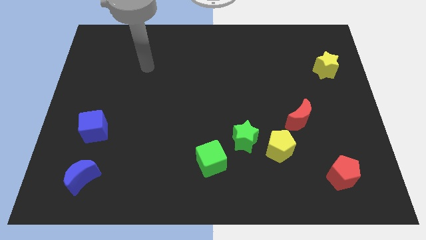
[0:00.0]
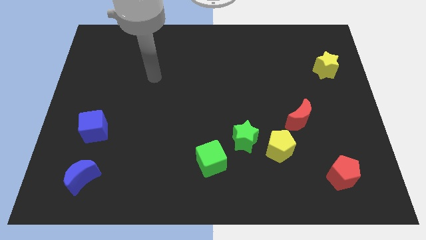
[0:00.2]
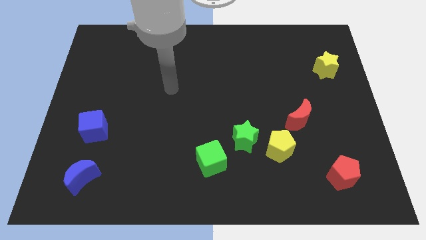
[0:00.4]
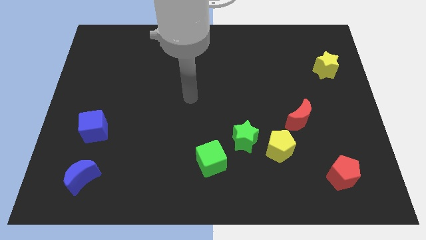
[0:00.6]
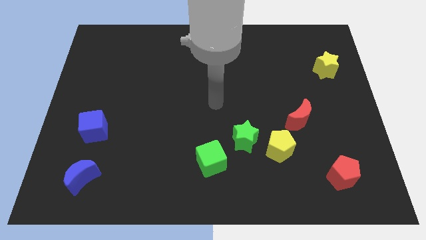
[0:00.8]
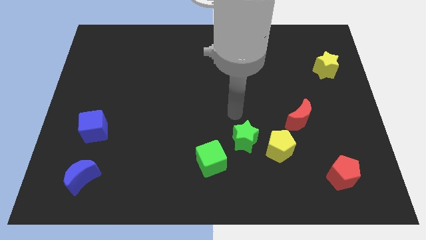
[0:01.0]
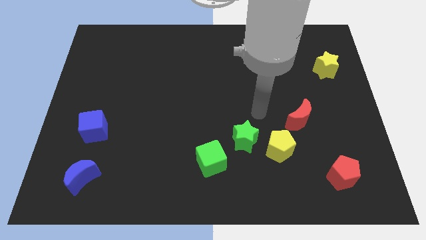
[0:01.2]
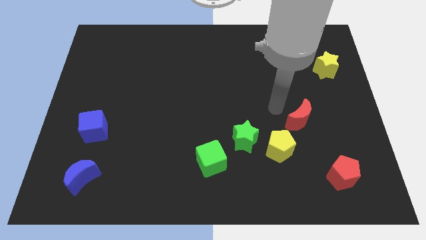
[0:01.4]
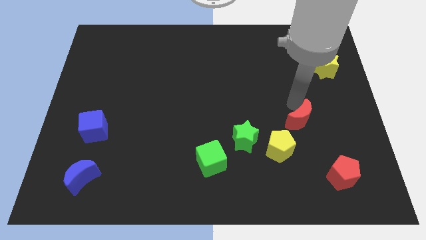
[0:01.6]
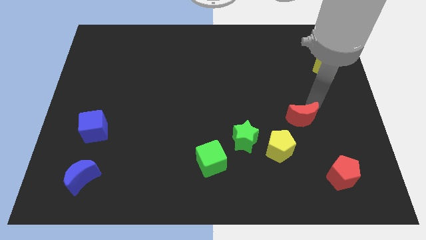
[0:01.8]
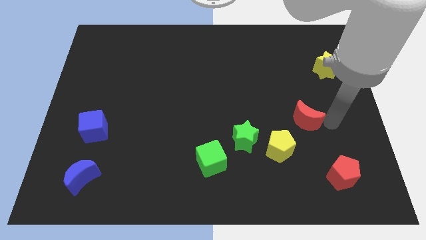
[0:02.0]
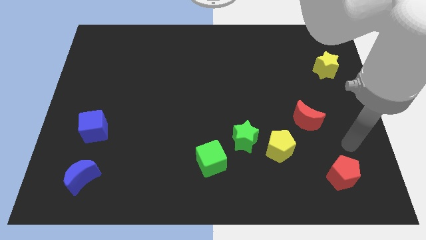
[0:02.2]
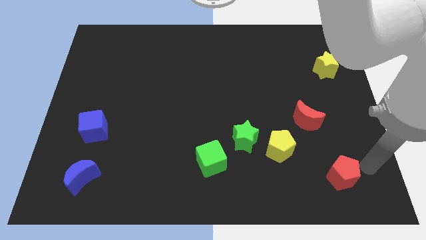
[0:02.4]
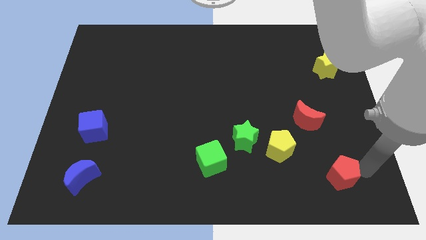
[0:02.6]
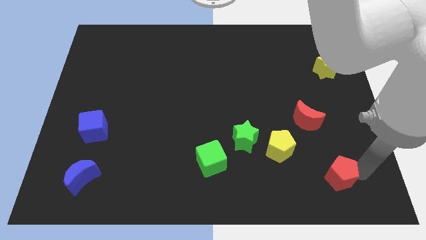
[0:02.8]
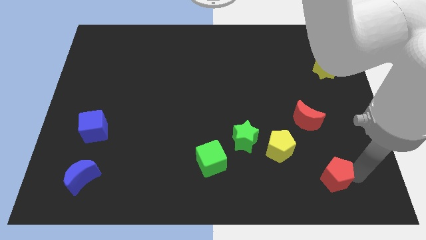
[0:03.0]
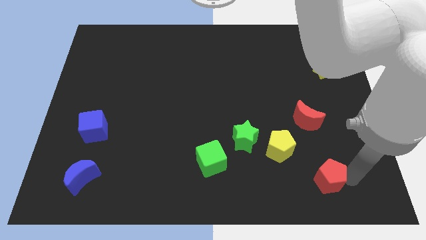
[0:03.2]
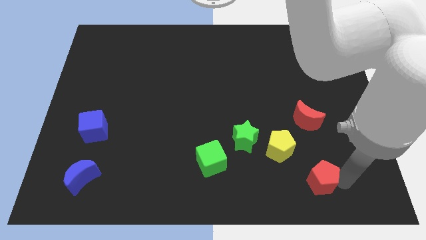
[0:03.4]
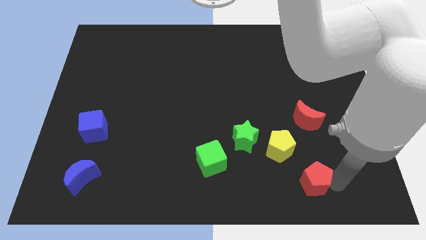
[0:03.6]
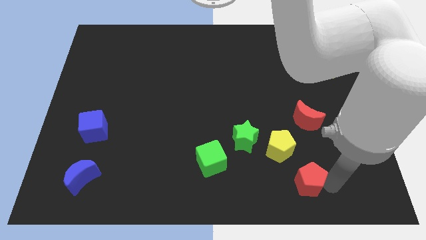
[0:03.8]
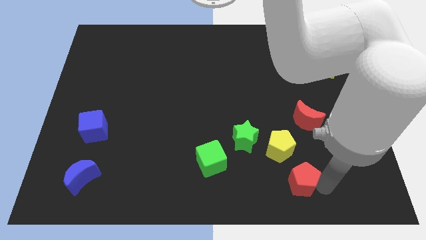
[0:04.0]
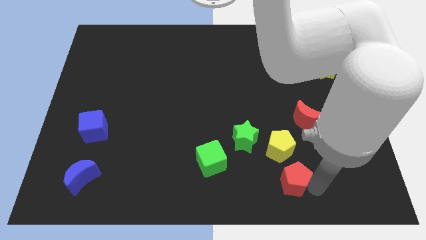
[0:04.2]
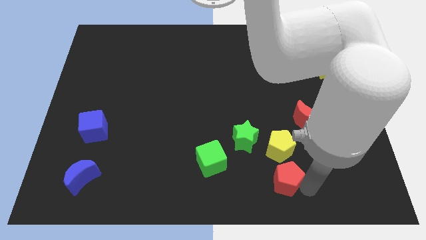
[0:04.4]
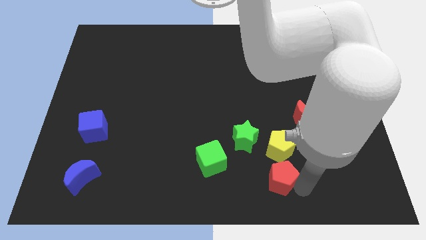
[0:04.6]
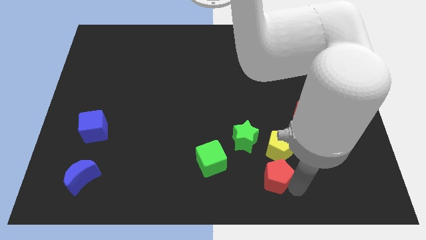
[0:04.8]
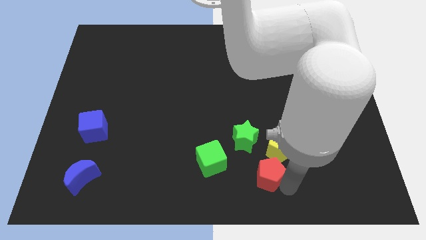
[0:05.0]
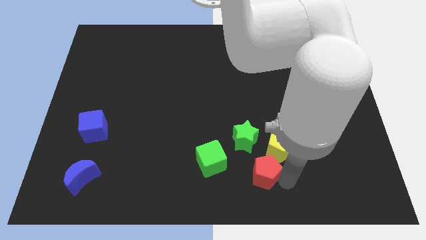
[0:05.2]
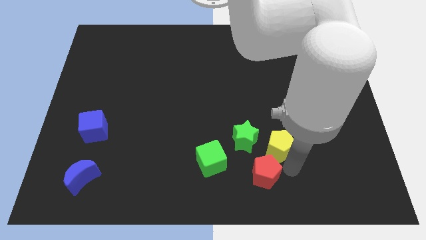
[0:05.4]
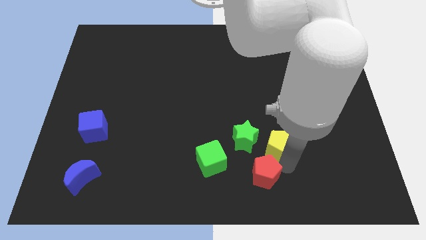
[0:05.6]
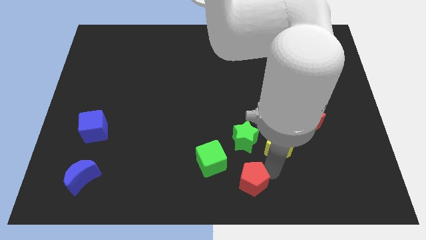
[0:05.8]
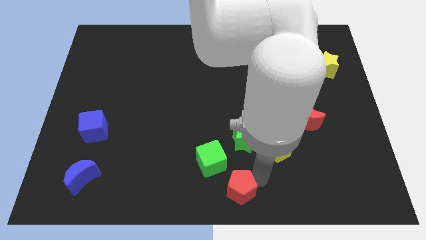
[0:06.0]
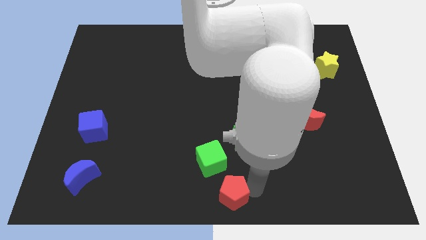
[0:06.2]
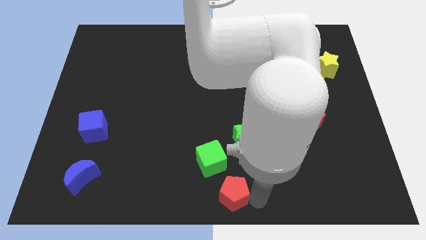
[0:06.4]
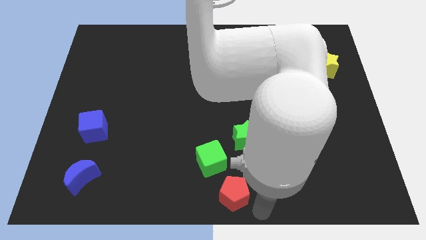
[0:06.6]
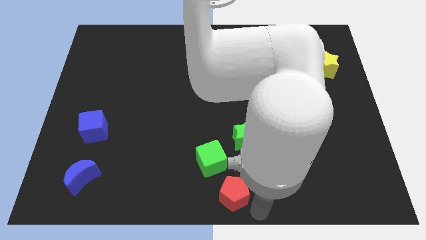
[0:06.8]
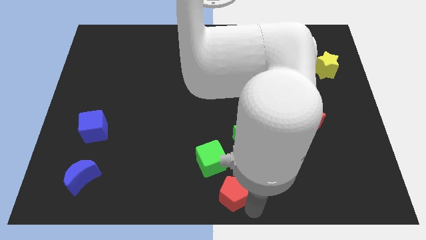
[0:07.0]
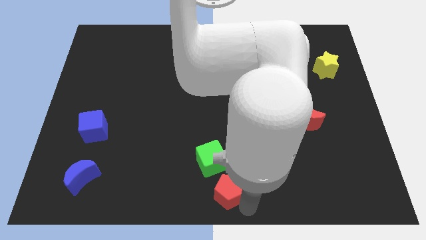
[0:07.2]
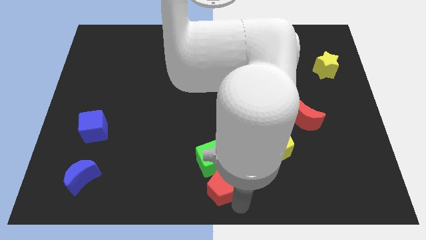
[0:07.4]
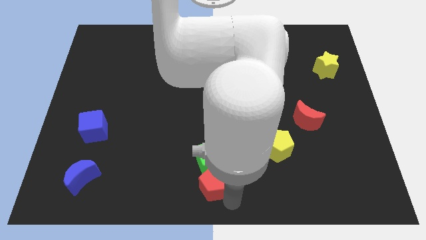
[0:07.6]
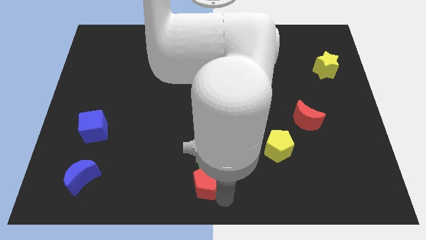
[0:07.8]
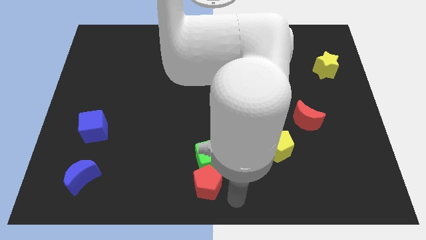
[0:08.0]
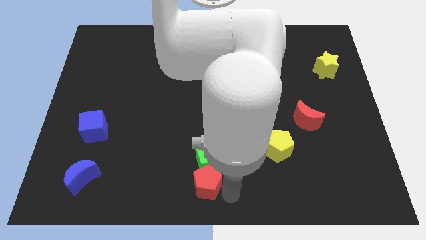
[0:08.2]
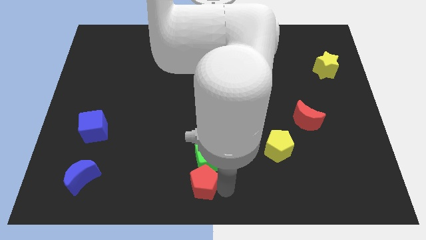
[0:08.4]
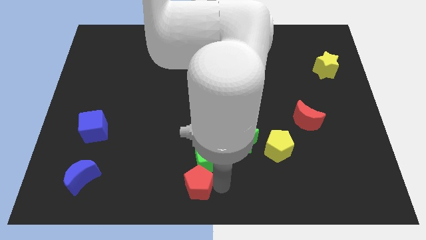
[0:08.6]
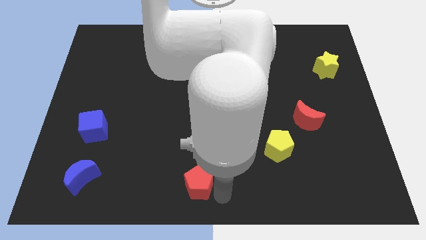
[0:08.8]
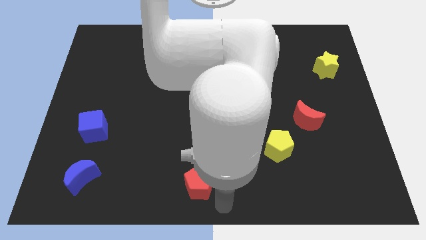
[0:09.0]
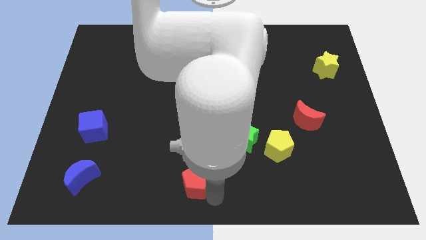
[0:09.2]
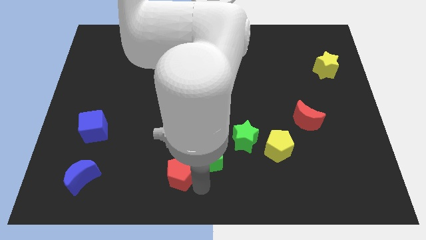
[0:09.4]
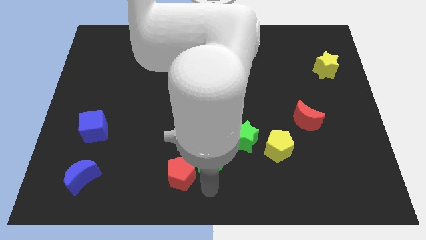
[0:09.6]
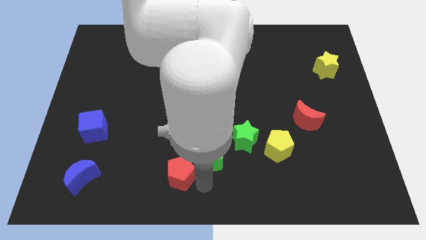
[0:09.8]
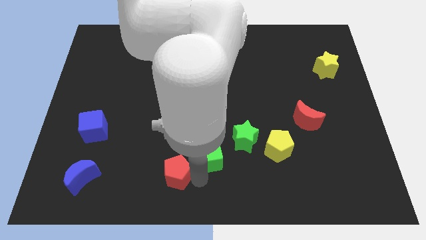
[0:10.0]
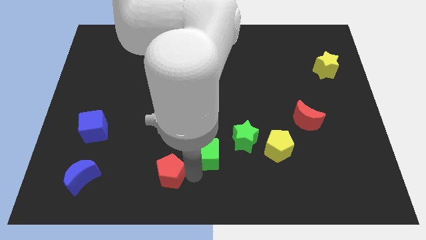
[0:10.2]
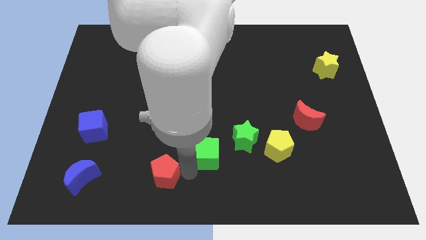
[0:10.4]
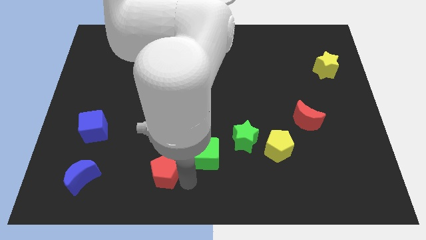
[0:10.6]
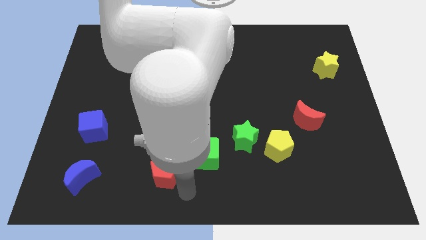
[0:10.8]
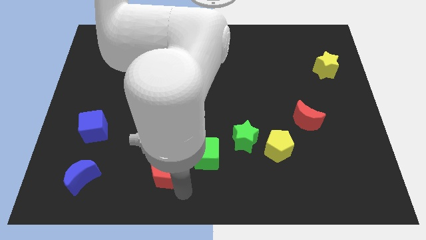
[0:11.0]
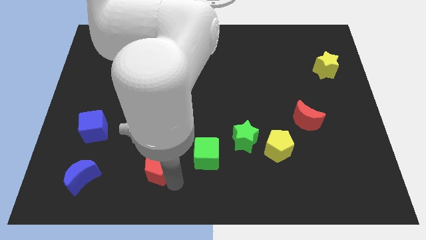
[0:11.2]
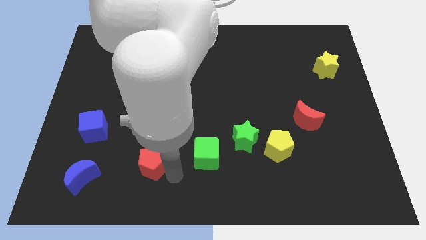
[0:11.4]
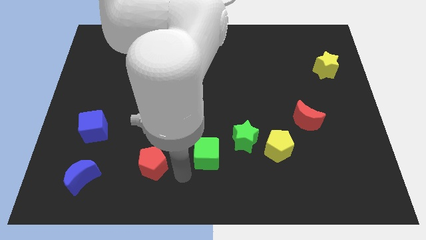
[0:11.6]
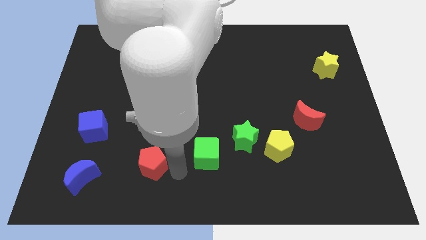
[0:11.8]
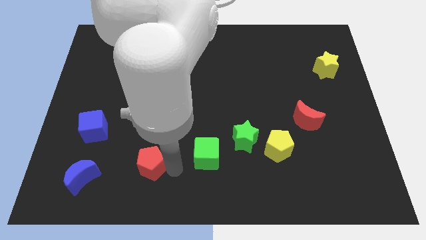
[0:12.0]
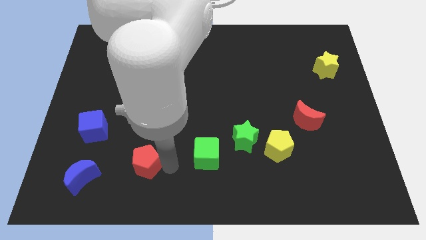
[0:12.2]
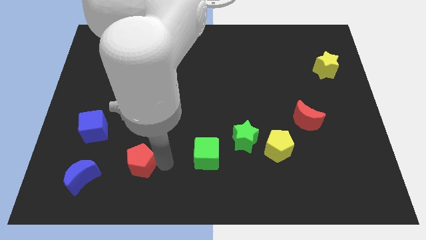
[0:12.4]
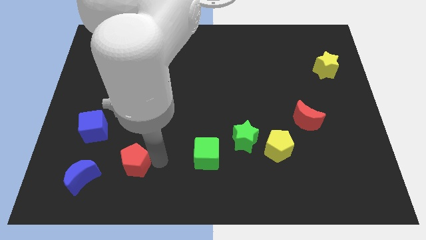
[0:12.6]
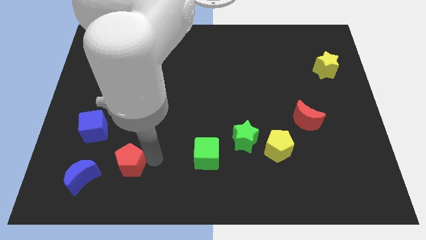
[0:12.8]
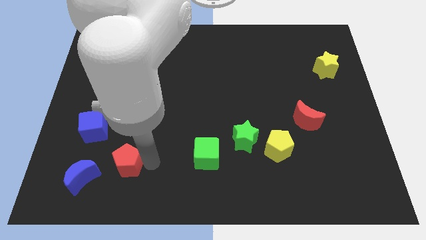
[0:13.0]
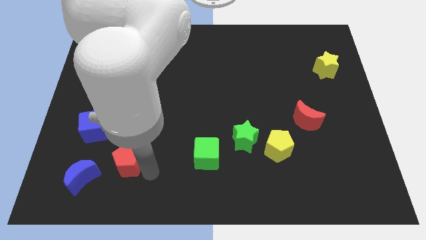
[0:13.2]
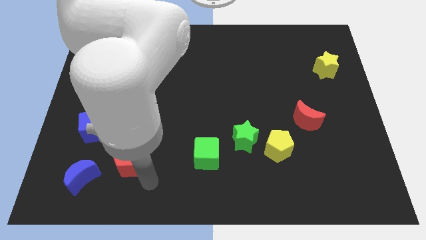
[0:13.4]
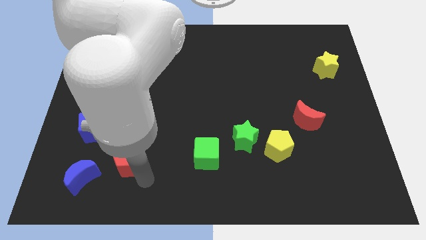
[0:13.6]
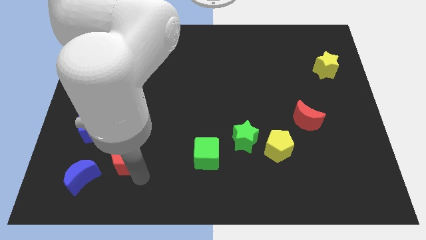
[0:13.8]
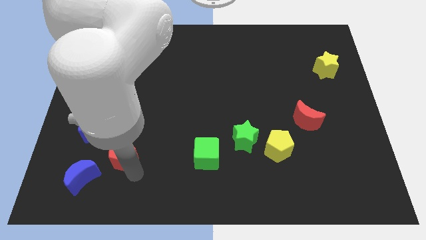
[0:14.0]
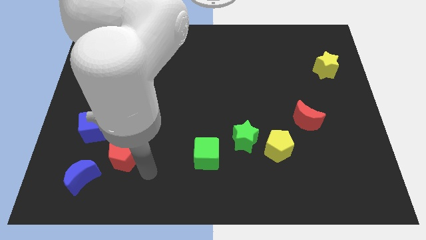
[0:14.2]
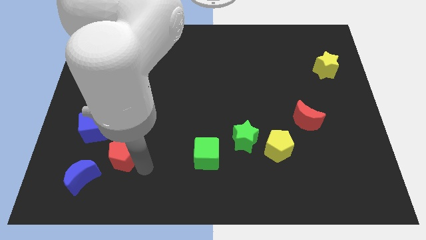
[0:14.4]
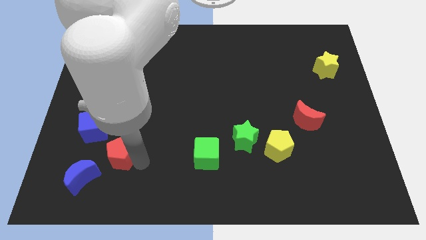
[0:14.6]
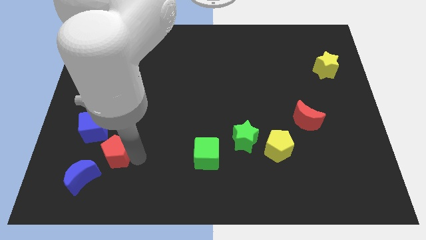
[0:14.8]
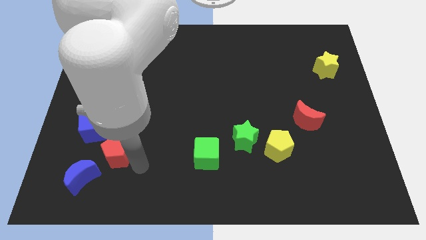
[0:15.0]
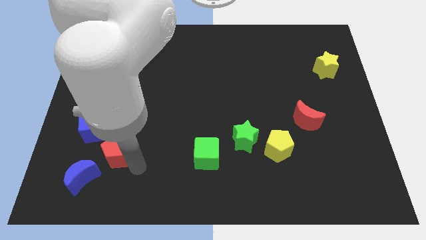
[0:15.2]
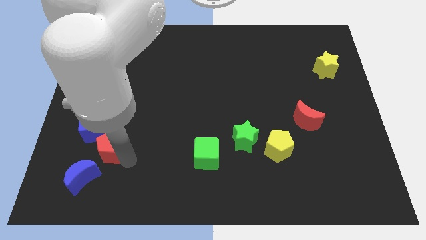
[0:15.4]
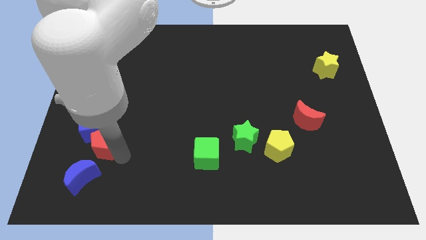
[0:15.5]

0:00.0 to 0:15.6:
move the red pentagon to the blue cube

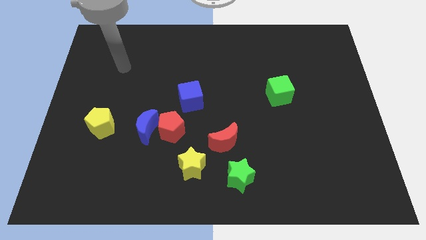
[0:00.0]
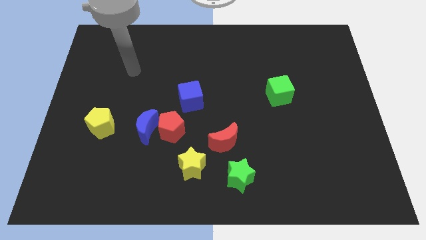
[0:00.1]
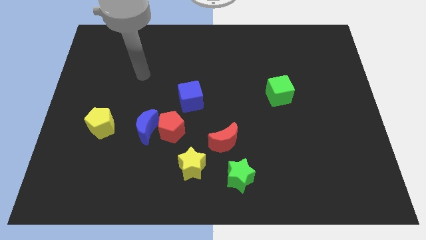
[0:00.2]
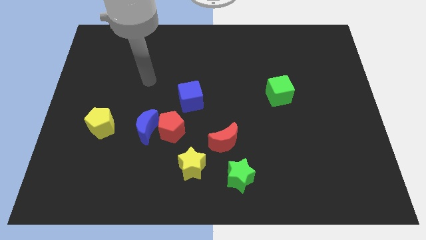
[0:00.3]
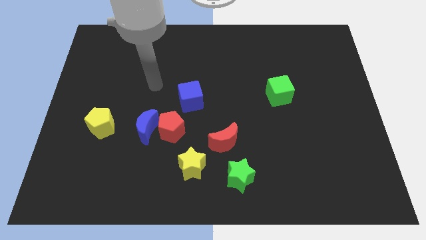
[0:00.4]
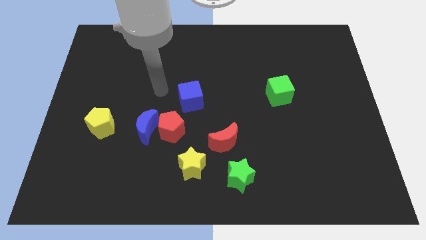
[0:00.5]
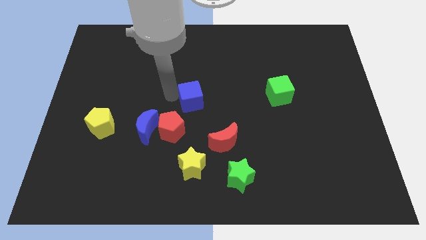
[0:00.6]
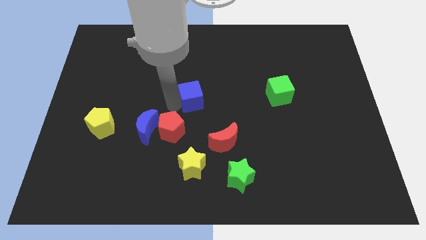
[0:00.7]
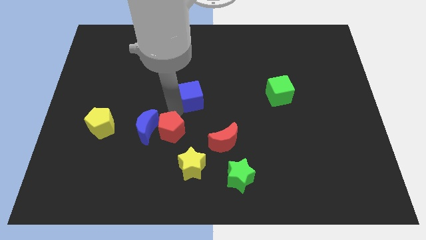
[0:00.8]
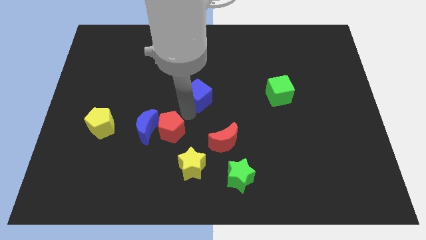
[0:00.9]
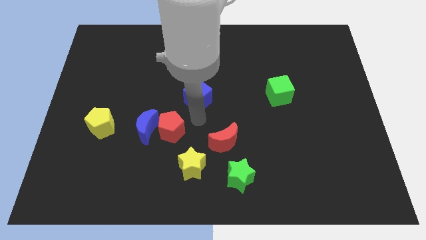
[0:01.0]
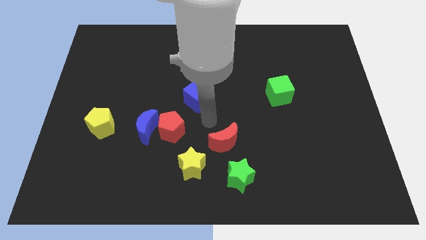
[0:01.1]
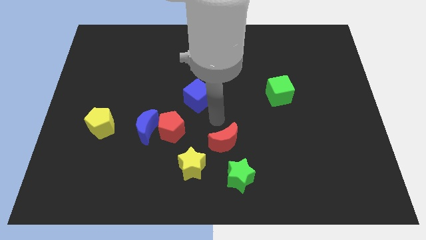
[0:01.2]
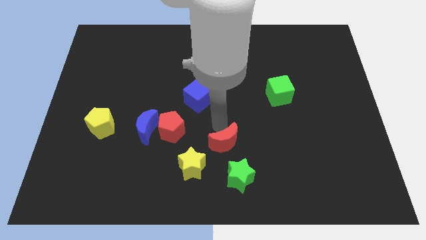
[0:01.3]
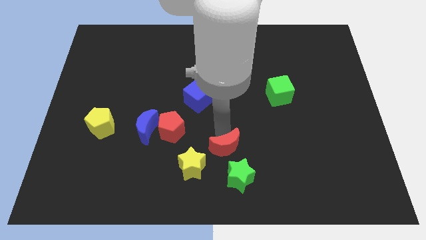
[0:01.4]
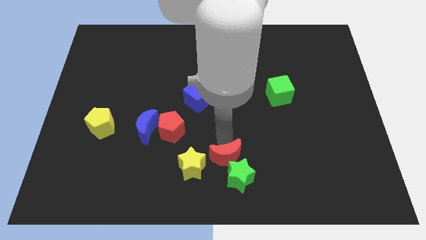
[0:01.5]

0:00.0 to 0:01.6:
push the red moon towards the green star
